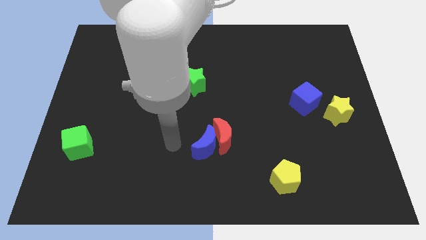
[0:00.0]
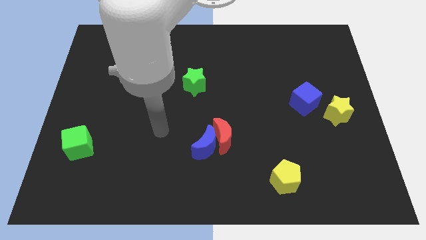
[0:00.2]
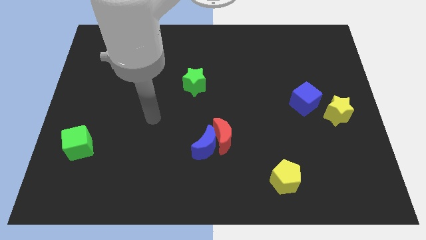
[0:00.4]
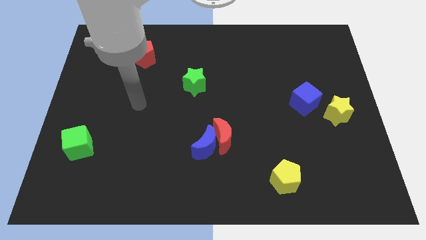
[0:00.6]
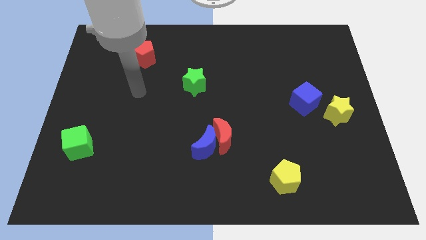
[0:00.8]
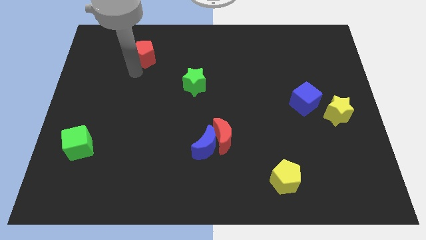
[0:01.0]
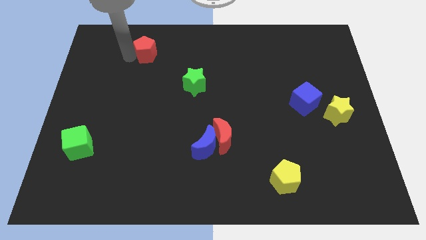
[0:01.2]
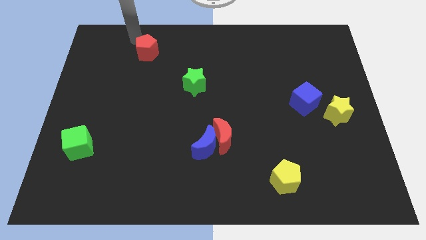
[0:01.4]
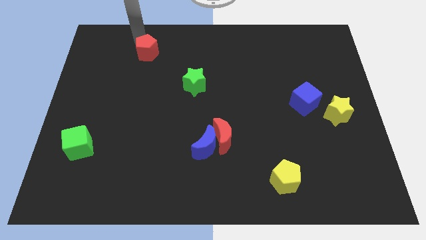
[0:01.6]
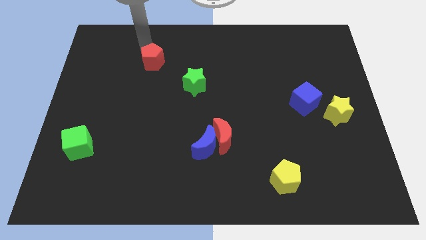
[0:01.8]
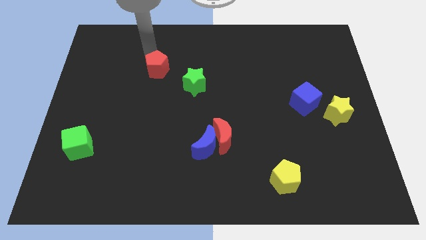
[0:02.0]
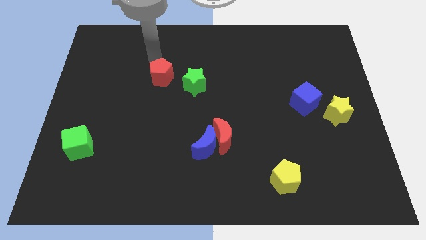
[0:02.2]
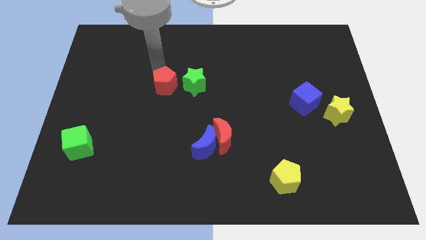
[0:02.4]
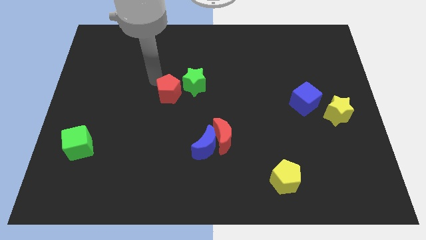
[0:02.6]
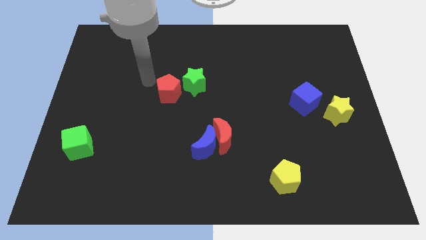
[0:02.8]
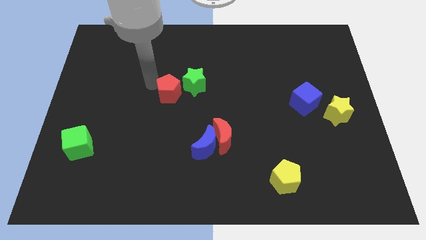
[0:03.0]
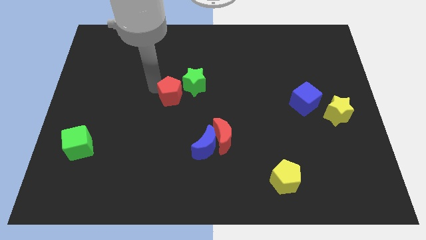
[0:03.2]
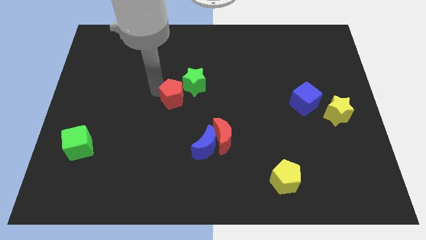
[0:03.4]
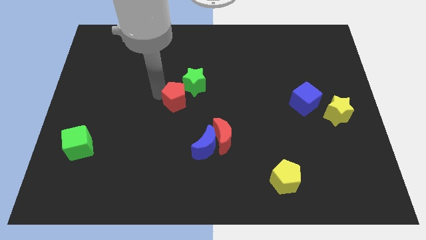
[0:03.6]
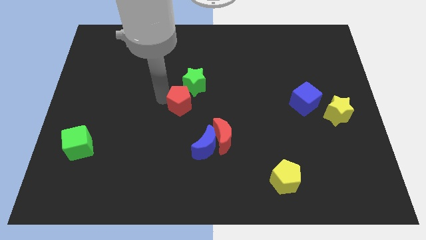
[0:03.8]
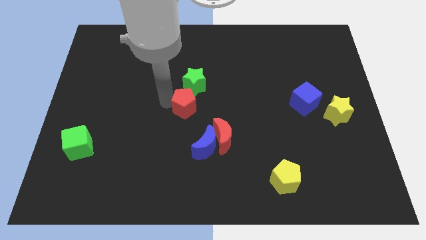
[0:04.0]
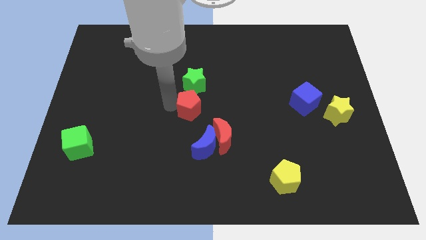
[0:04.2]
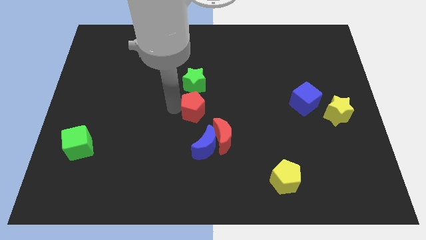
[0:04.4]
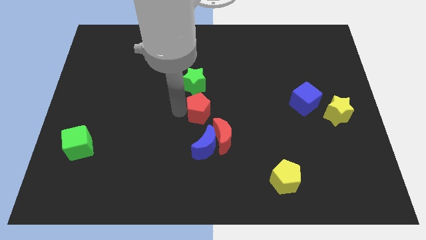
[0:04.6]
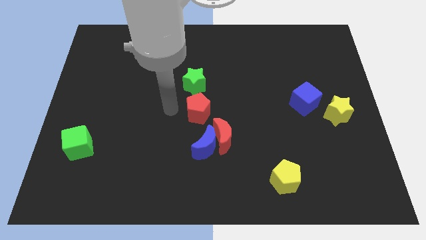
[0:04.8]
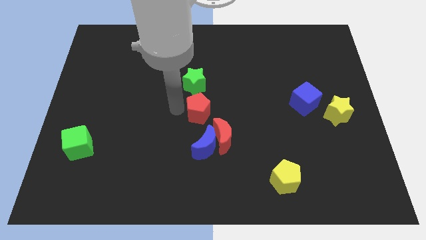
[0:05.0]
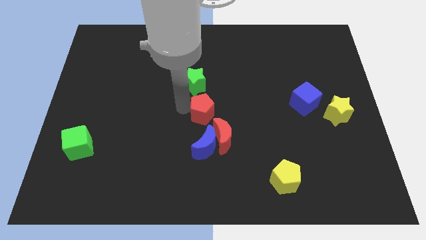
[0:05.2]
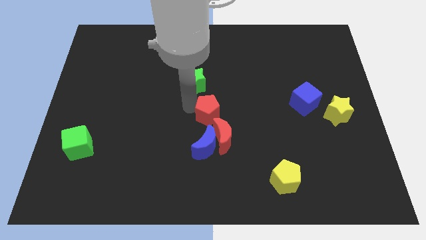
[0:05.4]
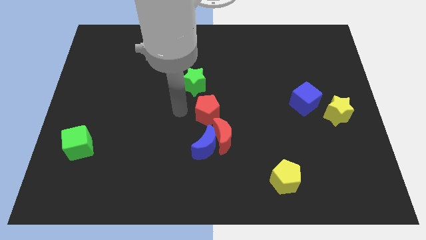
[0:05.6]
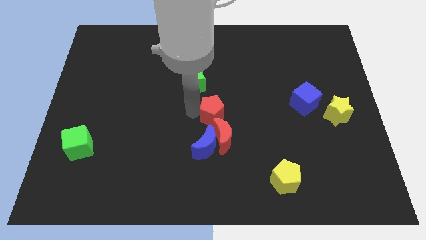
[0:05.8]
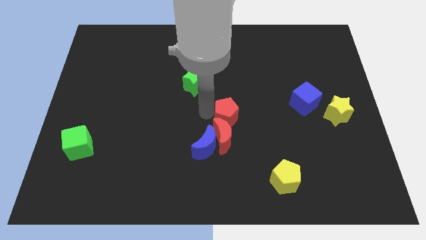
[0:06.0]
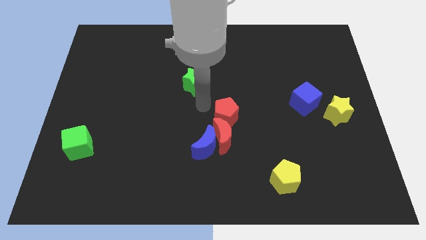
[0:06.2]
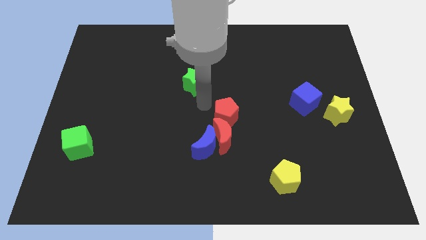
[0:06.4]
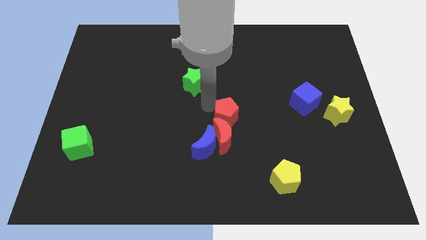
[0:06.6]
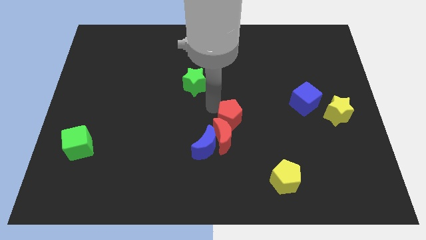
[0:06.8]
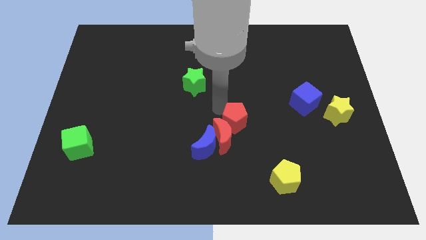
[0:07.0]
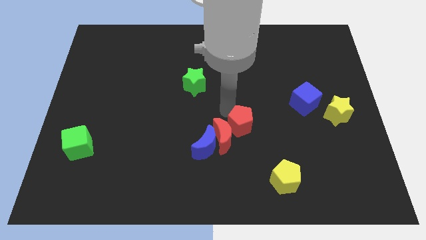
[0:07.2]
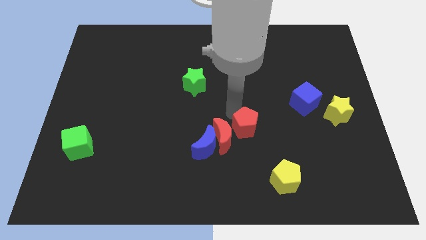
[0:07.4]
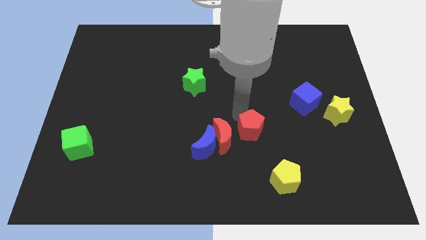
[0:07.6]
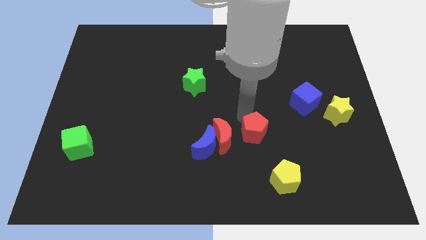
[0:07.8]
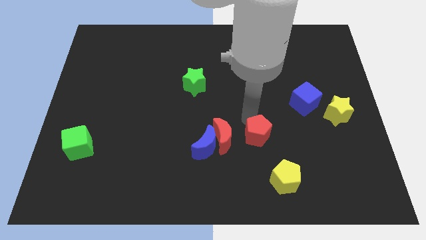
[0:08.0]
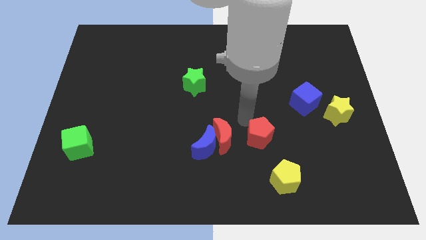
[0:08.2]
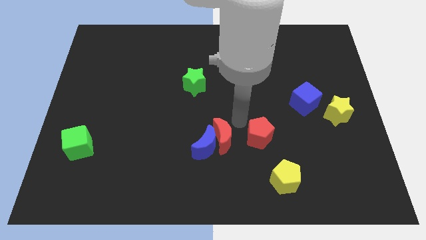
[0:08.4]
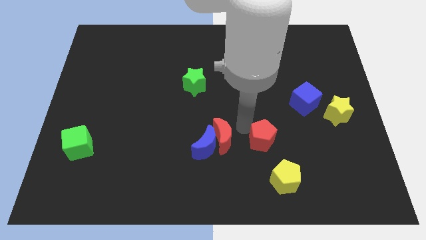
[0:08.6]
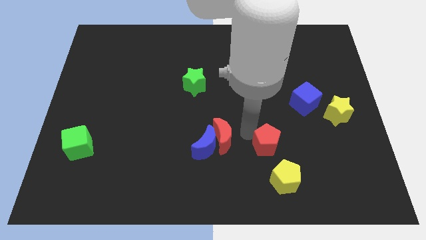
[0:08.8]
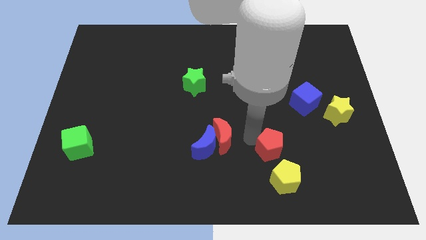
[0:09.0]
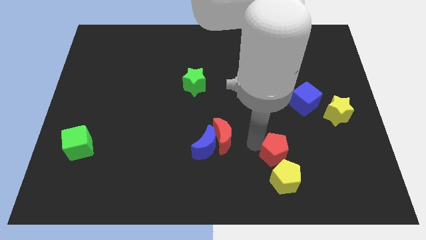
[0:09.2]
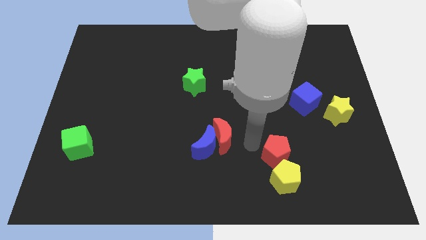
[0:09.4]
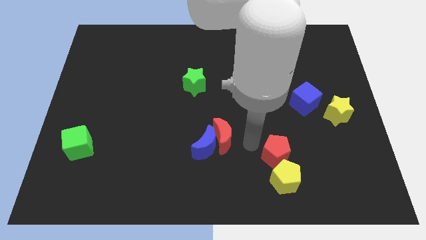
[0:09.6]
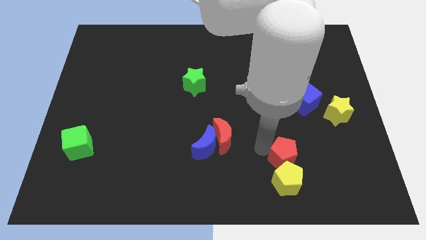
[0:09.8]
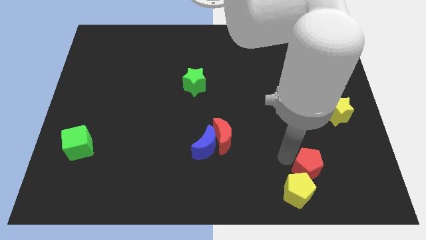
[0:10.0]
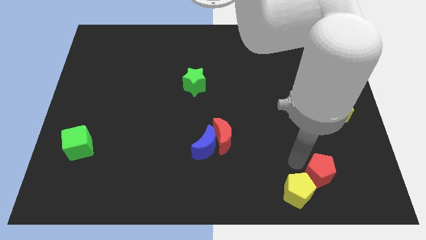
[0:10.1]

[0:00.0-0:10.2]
move the red pentagon to the right side of the yellow pentagon

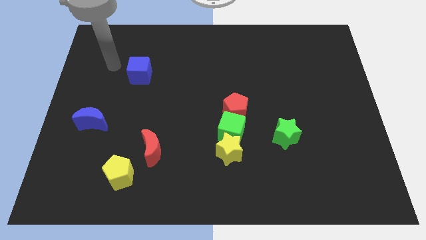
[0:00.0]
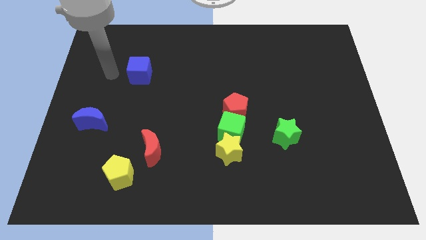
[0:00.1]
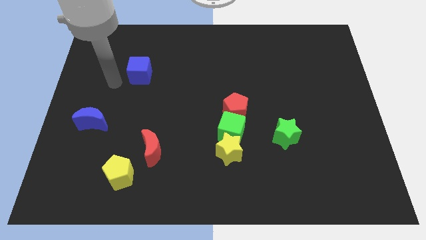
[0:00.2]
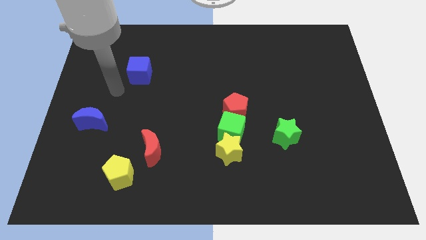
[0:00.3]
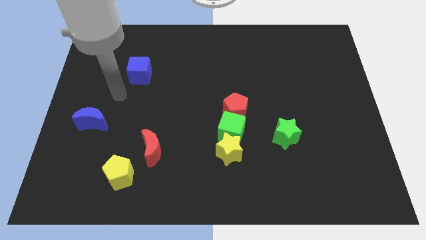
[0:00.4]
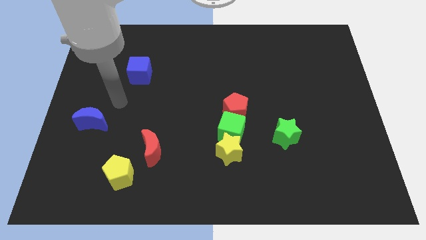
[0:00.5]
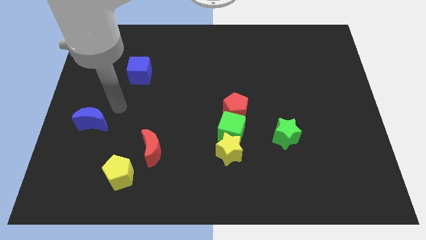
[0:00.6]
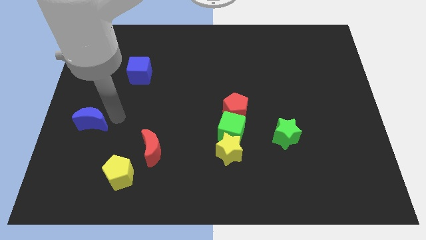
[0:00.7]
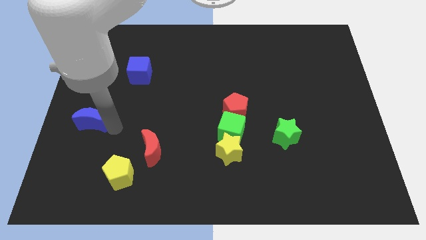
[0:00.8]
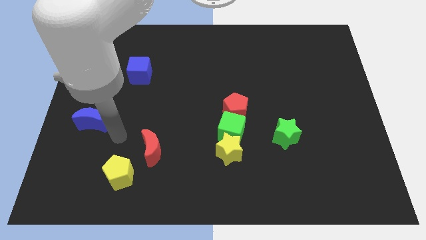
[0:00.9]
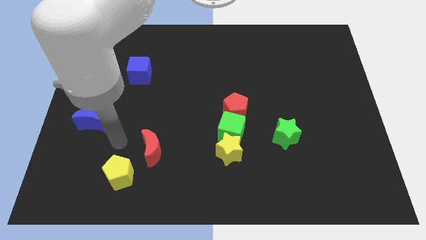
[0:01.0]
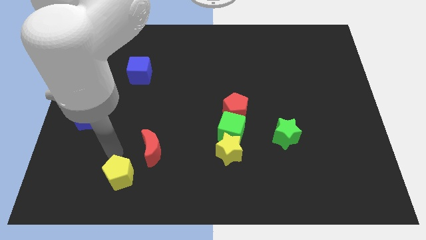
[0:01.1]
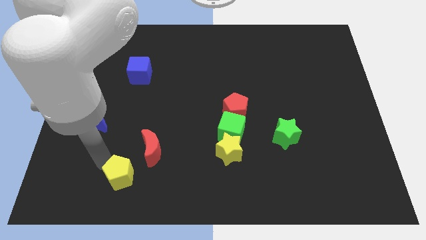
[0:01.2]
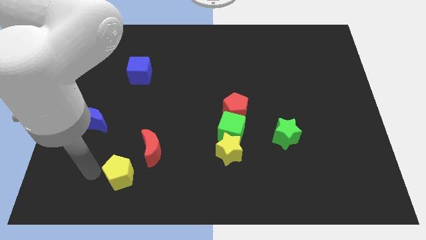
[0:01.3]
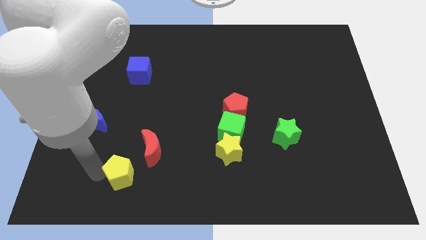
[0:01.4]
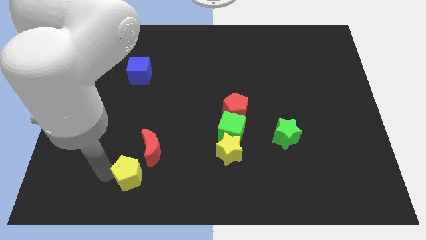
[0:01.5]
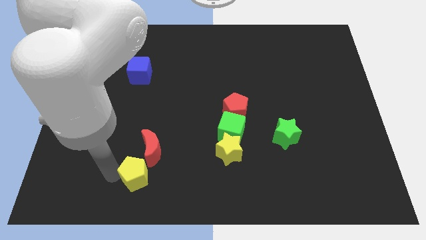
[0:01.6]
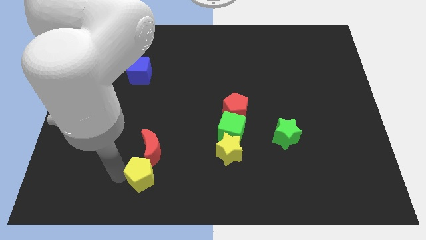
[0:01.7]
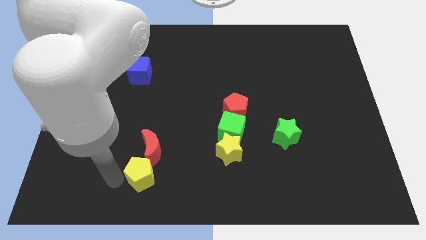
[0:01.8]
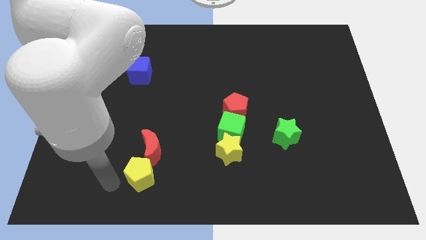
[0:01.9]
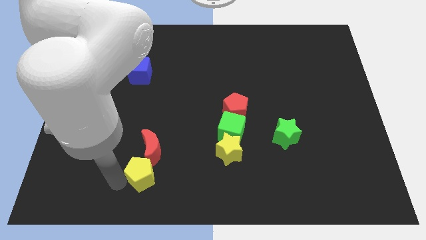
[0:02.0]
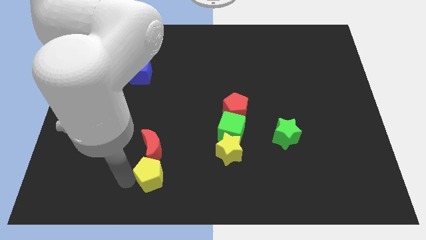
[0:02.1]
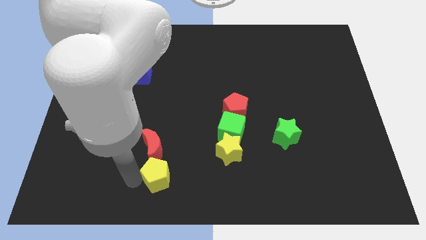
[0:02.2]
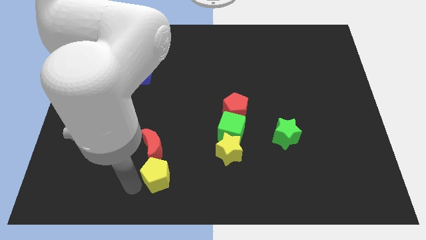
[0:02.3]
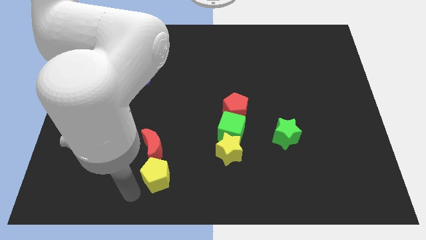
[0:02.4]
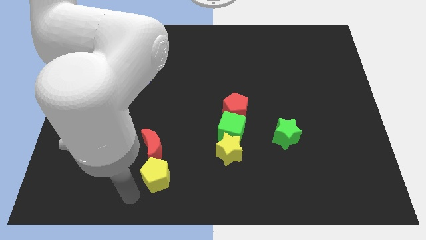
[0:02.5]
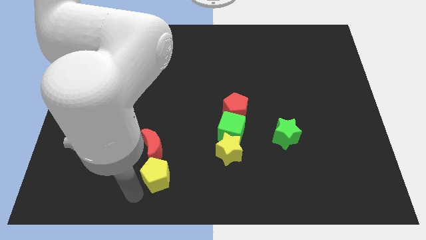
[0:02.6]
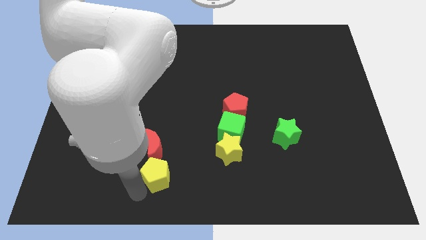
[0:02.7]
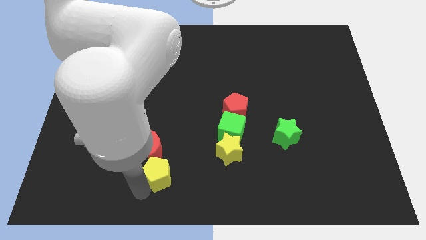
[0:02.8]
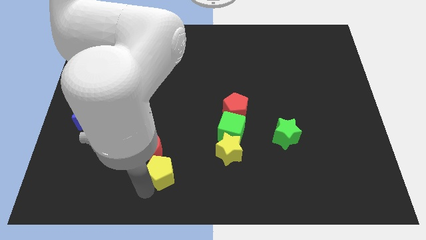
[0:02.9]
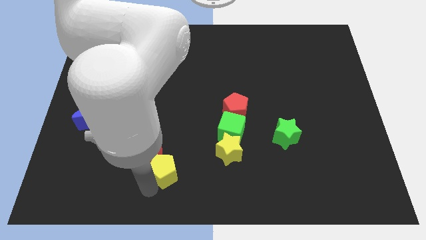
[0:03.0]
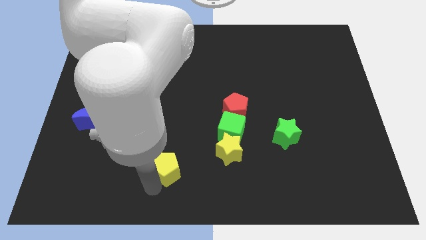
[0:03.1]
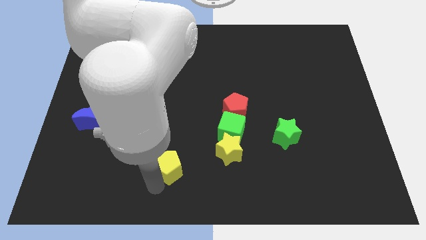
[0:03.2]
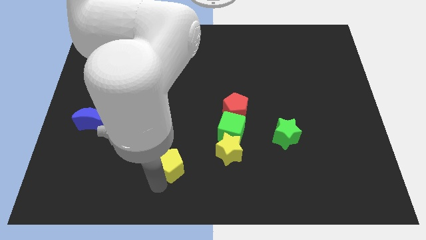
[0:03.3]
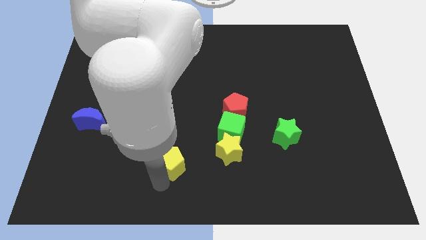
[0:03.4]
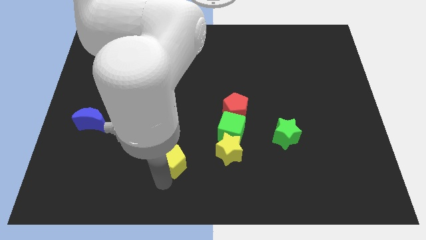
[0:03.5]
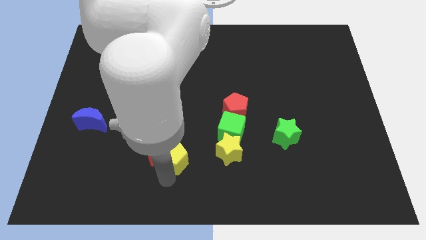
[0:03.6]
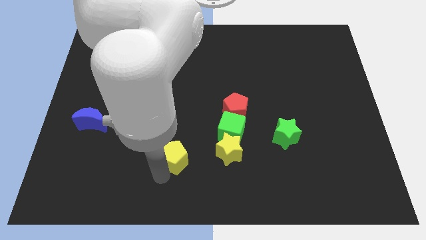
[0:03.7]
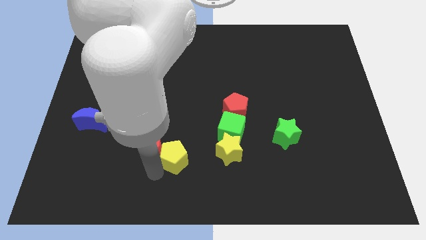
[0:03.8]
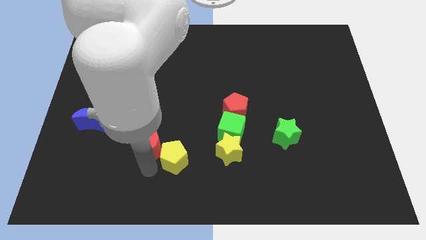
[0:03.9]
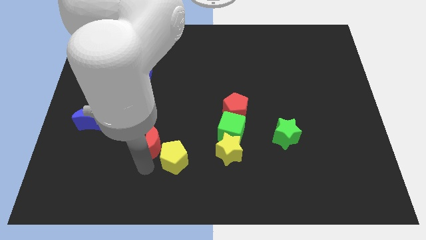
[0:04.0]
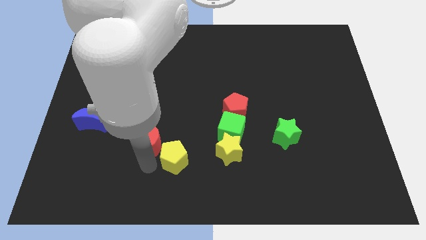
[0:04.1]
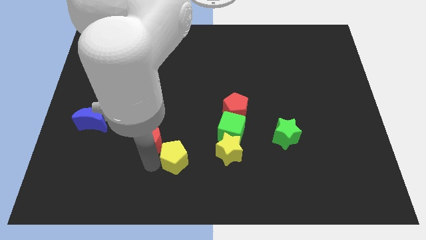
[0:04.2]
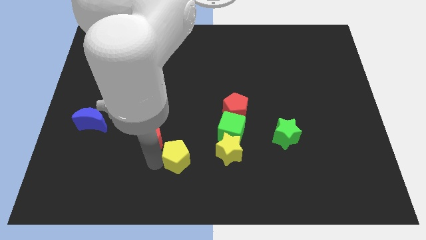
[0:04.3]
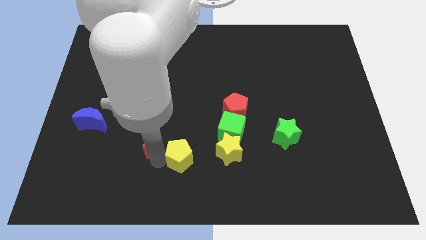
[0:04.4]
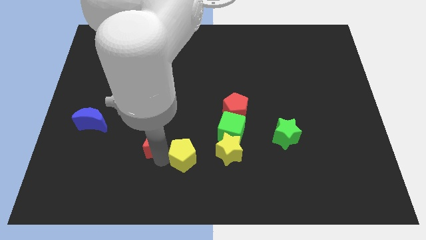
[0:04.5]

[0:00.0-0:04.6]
slide the yellow pentagon to the bottom left side of the green cube
